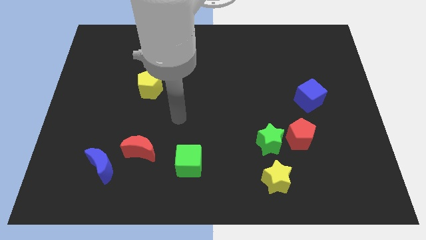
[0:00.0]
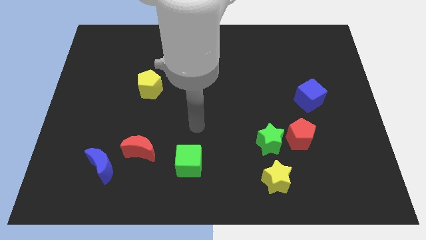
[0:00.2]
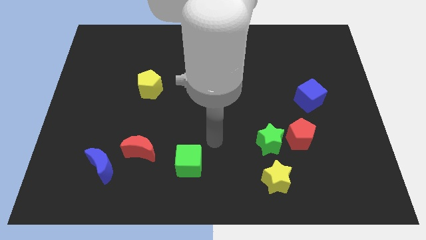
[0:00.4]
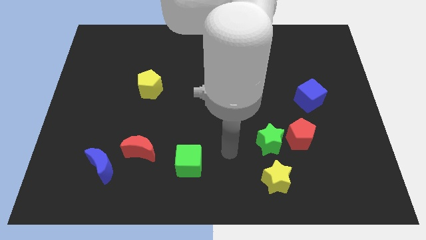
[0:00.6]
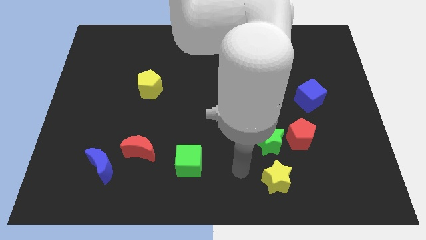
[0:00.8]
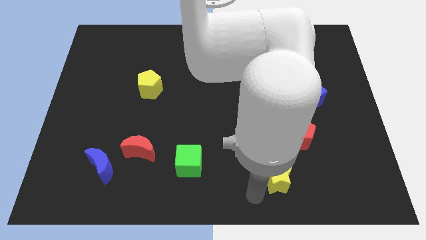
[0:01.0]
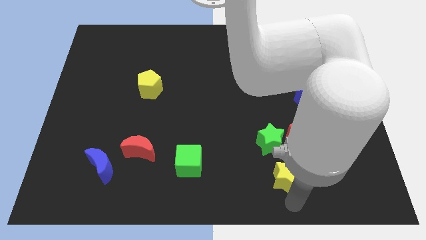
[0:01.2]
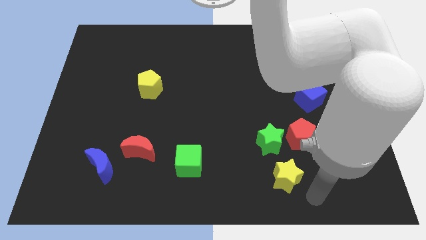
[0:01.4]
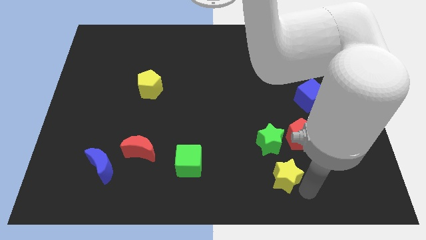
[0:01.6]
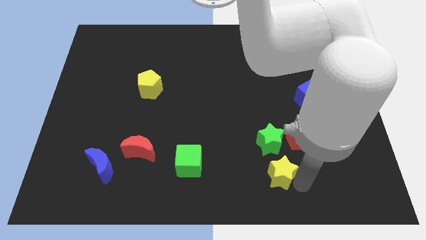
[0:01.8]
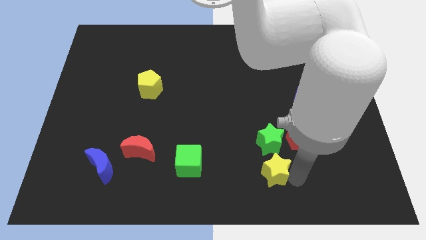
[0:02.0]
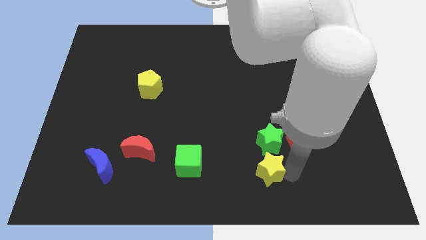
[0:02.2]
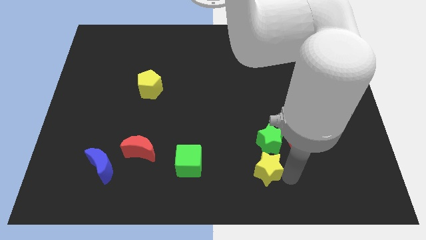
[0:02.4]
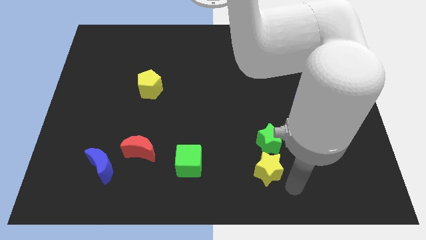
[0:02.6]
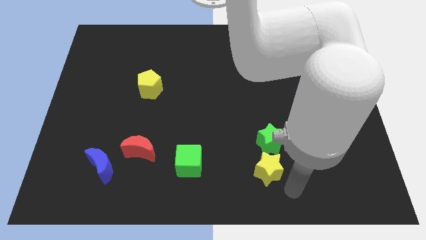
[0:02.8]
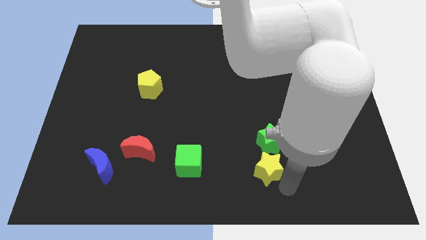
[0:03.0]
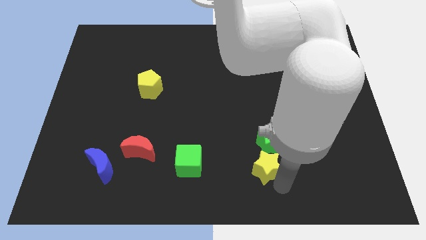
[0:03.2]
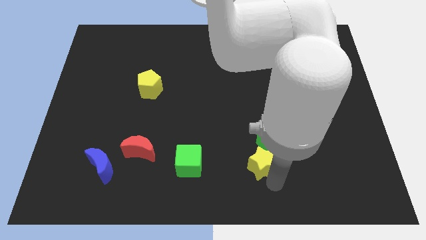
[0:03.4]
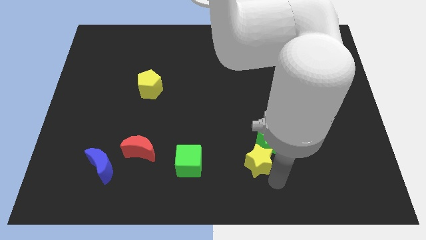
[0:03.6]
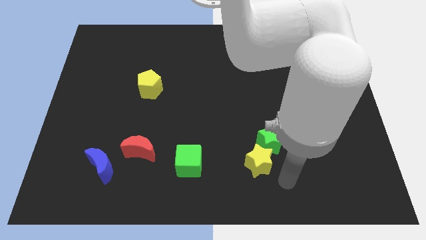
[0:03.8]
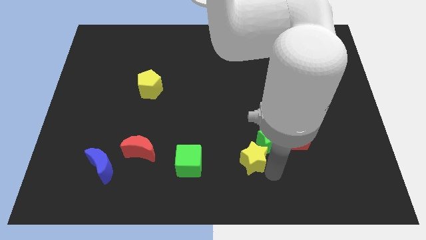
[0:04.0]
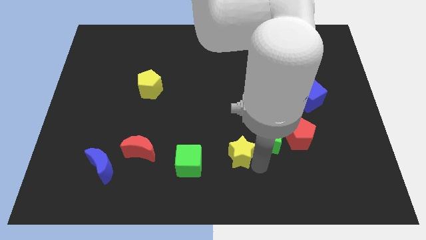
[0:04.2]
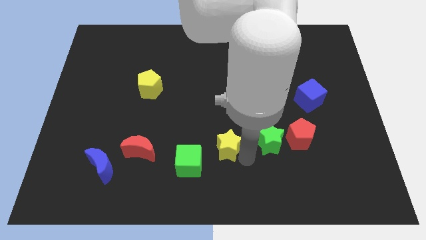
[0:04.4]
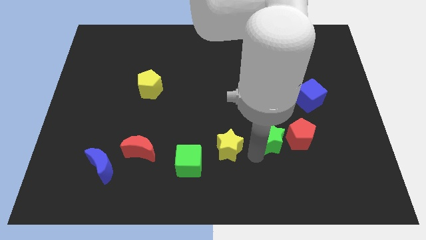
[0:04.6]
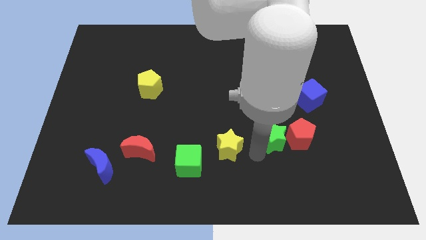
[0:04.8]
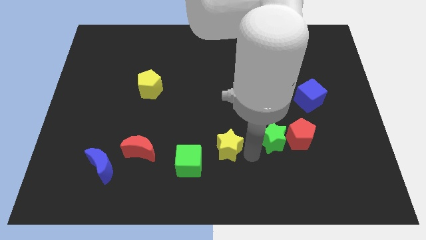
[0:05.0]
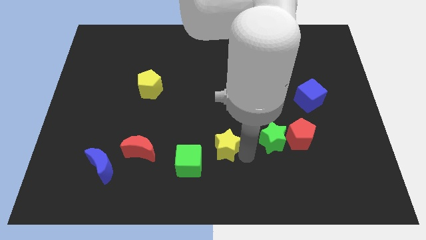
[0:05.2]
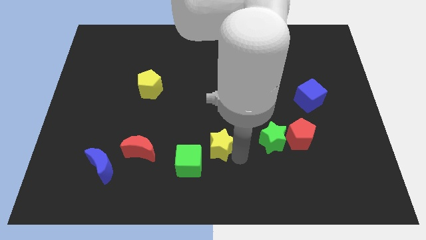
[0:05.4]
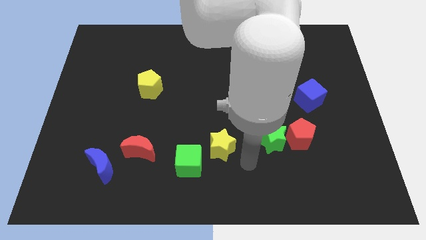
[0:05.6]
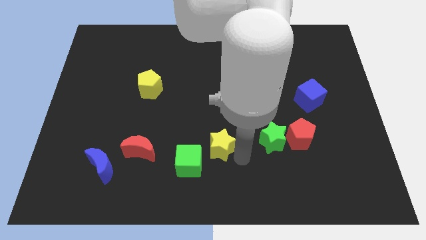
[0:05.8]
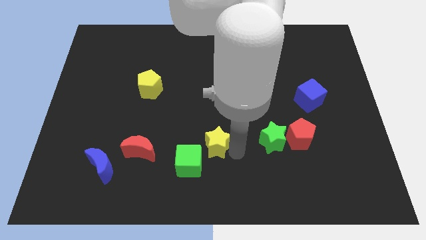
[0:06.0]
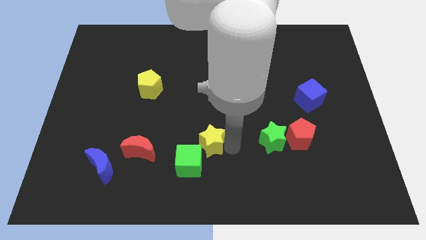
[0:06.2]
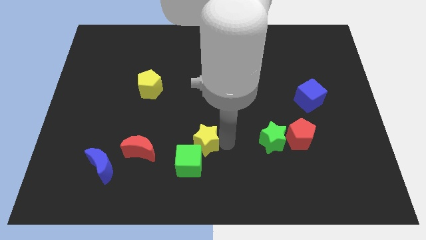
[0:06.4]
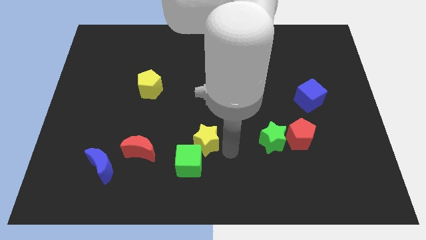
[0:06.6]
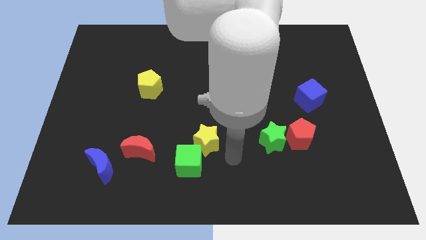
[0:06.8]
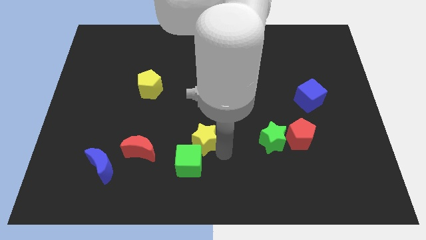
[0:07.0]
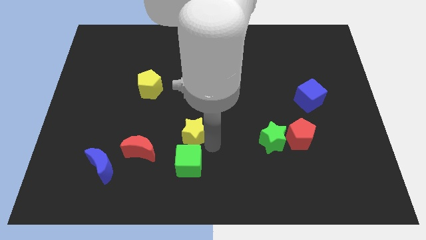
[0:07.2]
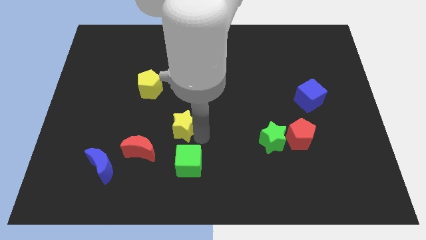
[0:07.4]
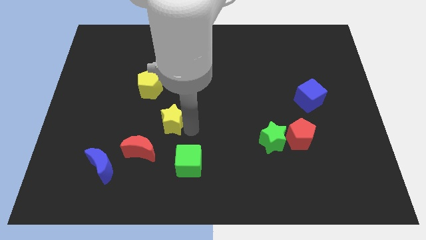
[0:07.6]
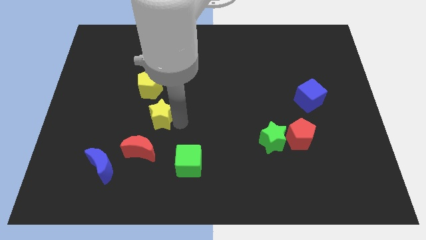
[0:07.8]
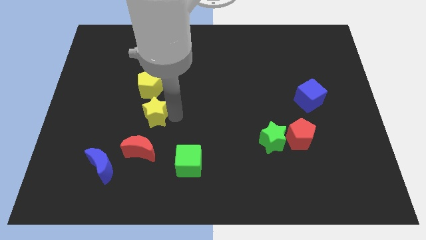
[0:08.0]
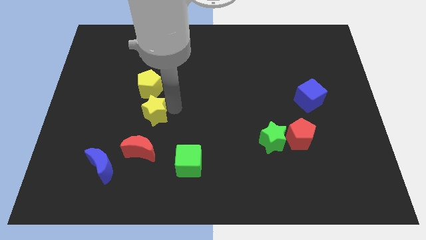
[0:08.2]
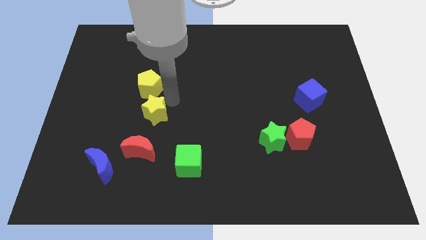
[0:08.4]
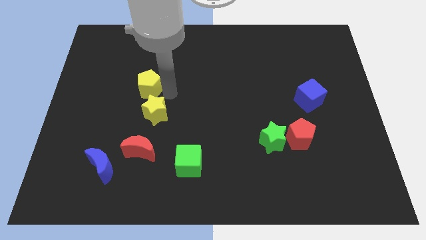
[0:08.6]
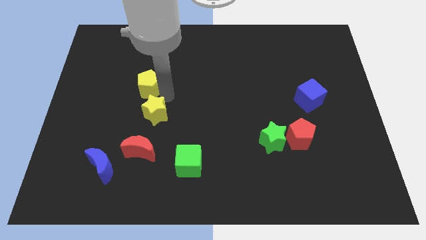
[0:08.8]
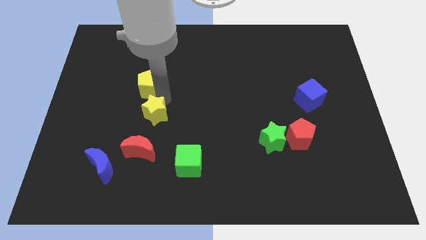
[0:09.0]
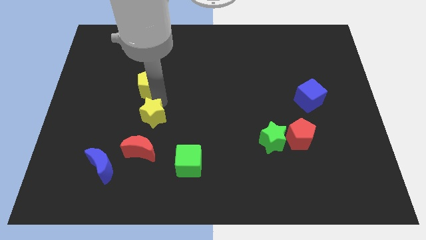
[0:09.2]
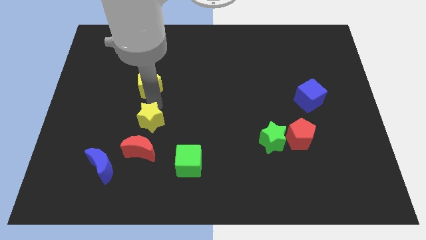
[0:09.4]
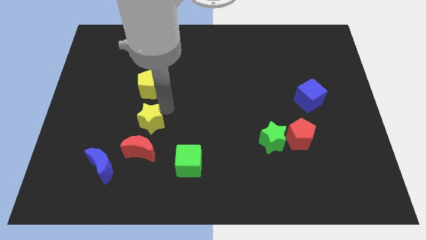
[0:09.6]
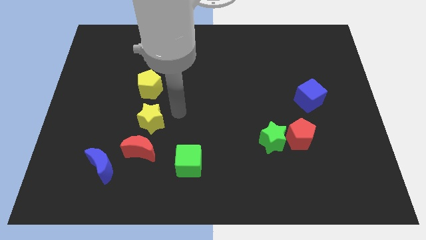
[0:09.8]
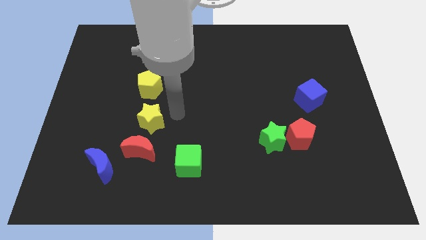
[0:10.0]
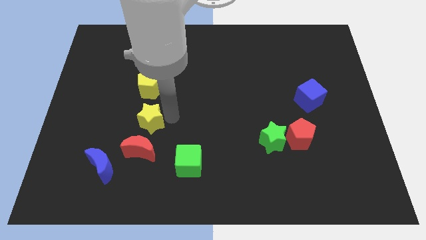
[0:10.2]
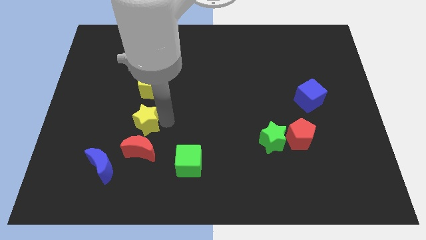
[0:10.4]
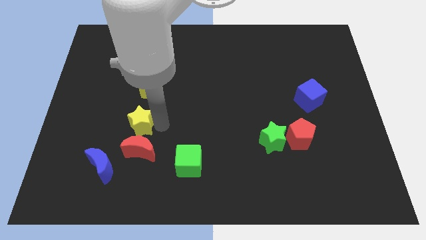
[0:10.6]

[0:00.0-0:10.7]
push the yellow star diagonally up and to the left of the red moon

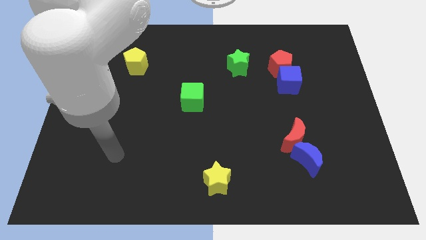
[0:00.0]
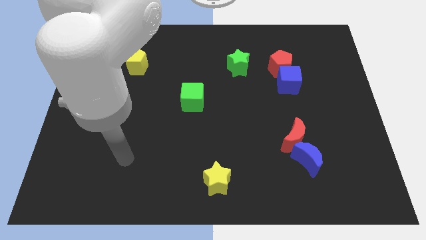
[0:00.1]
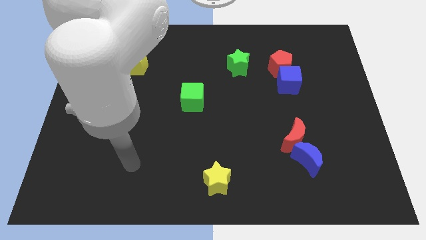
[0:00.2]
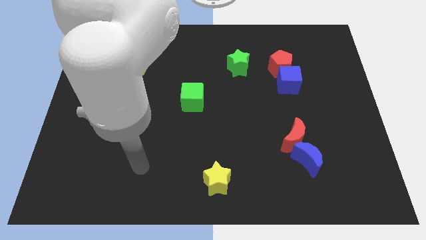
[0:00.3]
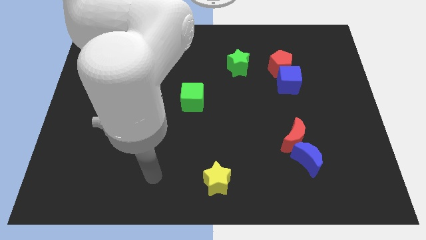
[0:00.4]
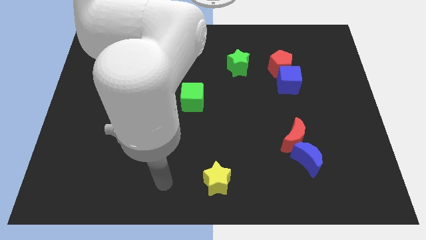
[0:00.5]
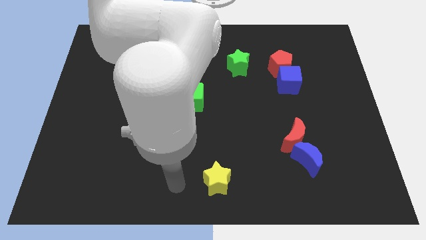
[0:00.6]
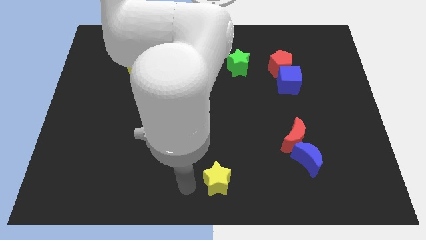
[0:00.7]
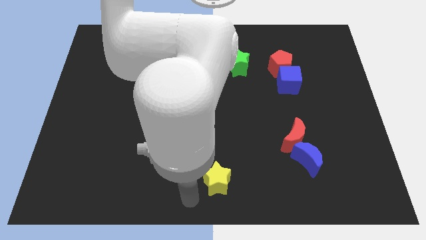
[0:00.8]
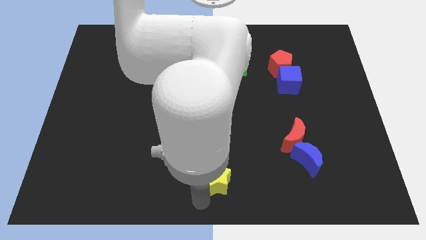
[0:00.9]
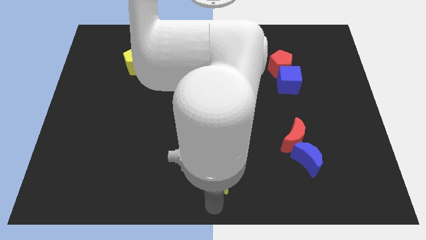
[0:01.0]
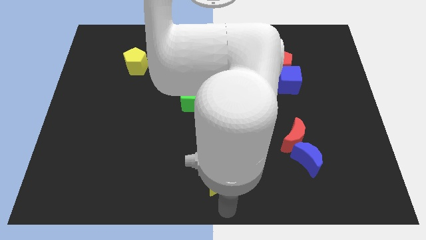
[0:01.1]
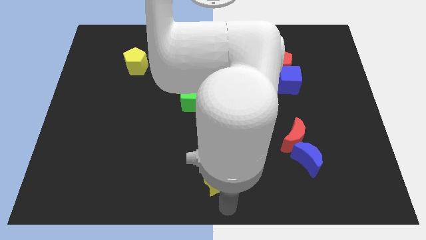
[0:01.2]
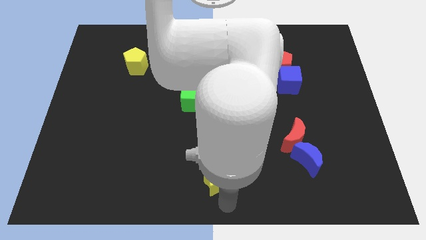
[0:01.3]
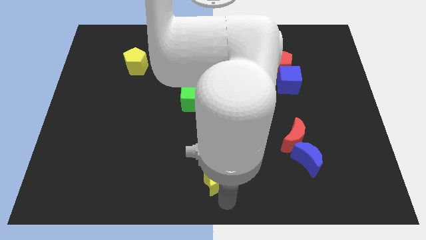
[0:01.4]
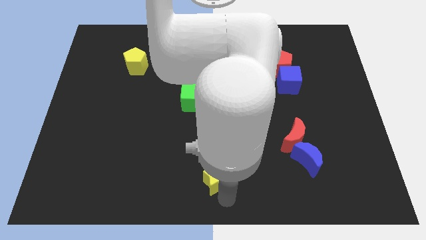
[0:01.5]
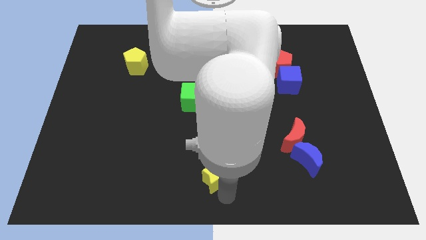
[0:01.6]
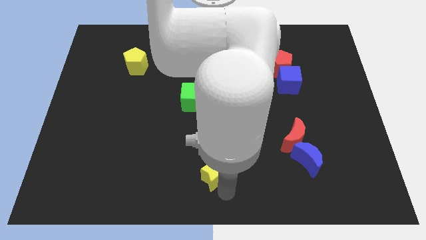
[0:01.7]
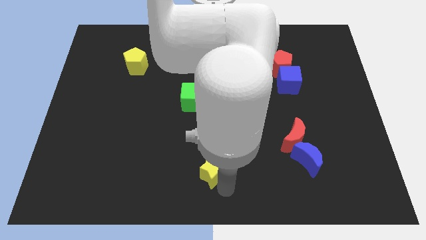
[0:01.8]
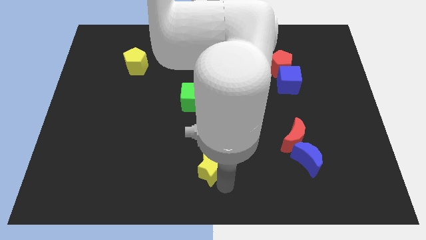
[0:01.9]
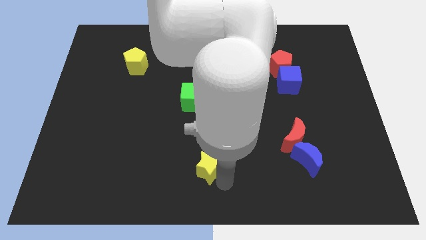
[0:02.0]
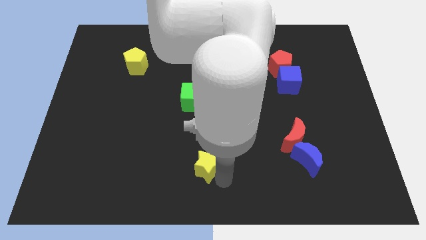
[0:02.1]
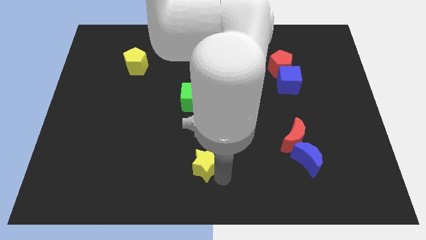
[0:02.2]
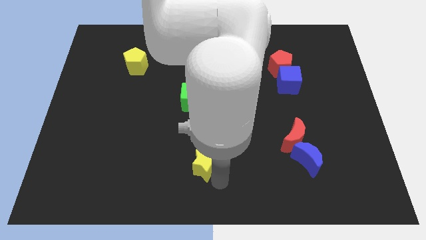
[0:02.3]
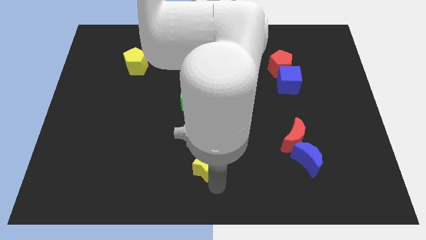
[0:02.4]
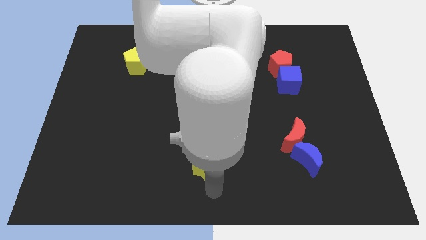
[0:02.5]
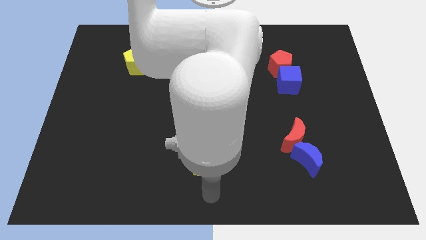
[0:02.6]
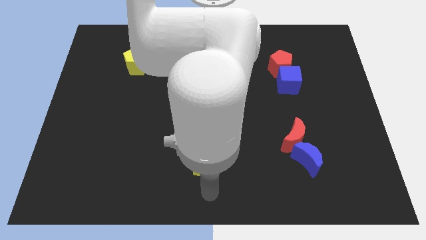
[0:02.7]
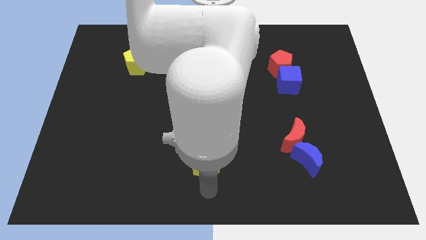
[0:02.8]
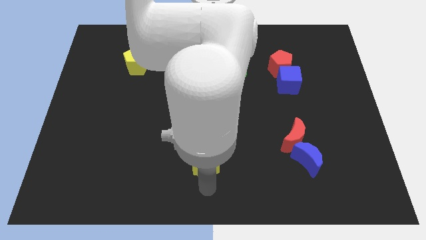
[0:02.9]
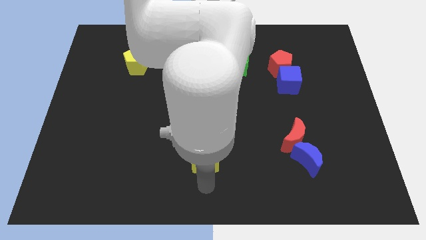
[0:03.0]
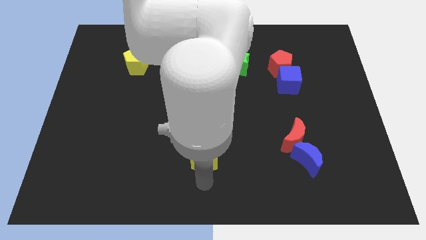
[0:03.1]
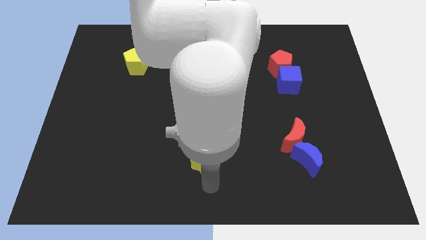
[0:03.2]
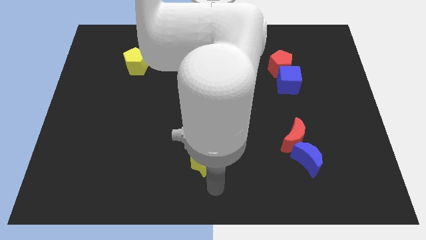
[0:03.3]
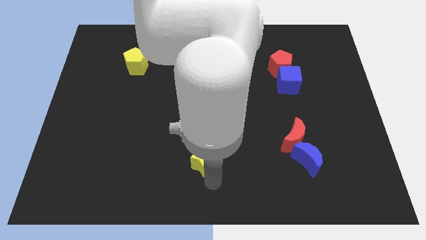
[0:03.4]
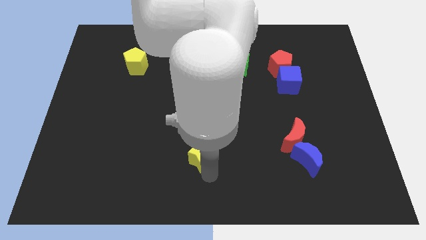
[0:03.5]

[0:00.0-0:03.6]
slide the yellow star below the green cube
